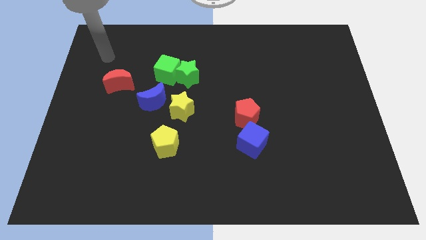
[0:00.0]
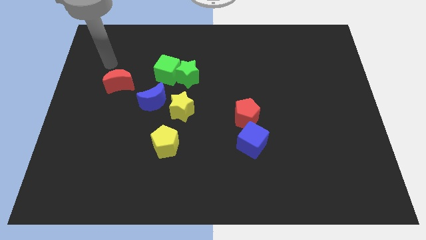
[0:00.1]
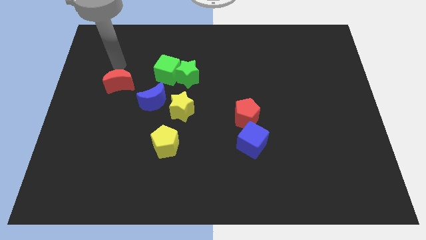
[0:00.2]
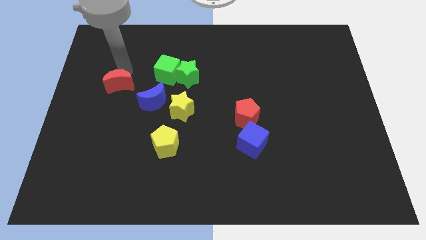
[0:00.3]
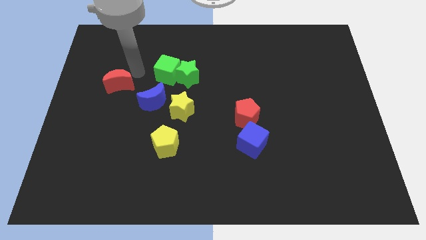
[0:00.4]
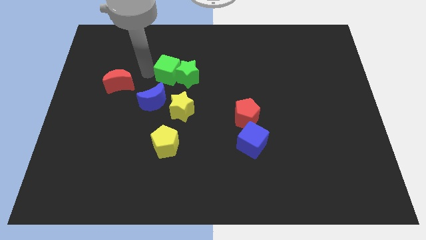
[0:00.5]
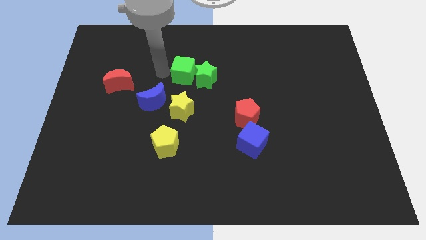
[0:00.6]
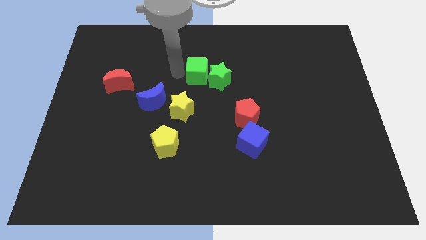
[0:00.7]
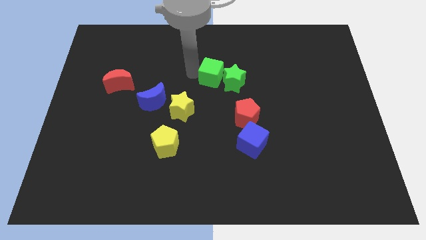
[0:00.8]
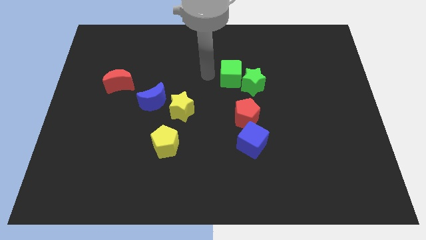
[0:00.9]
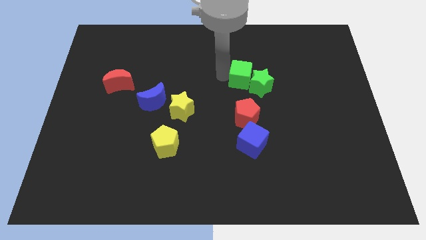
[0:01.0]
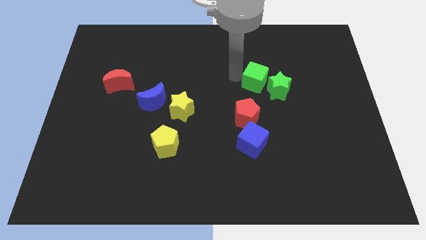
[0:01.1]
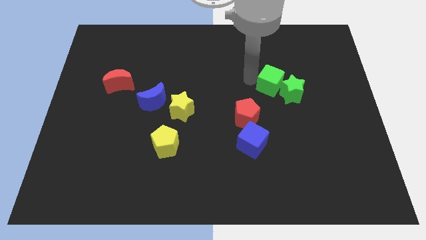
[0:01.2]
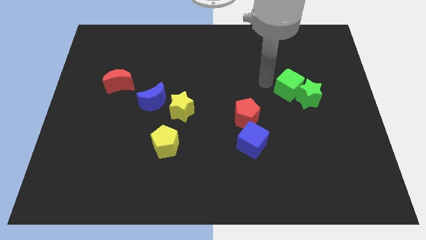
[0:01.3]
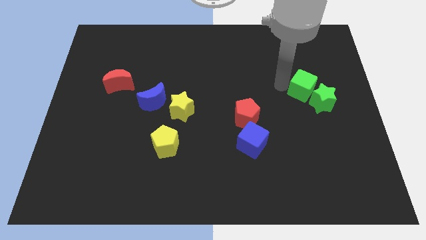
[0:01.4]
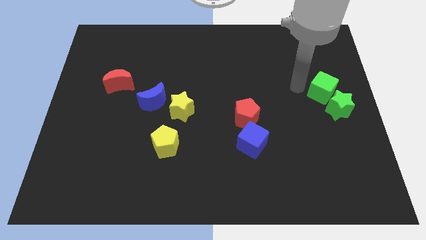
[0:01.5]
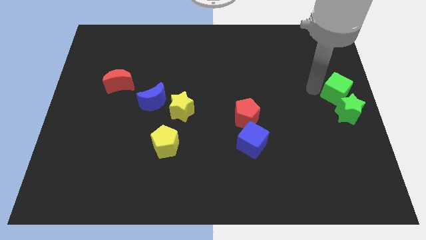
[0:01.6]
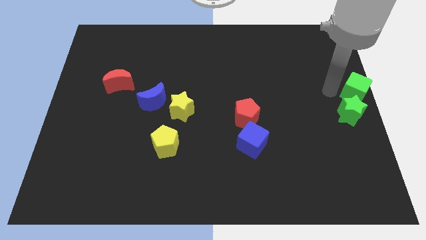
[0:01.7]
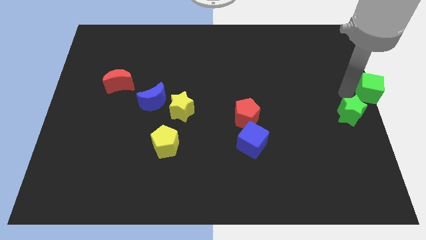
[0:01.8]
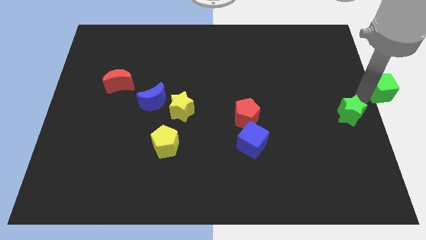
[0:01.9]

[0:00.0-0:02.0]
pull the green star apart from the green cube

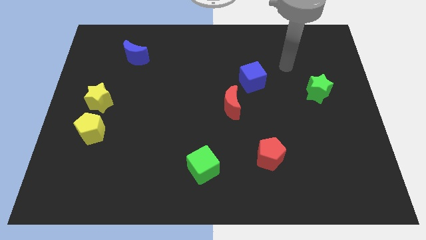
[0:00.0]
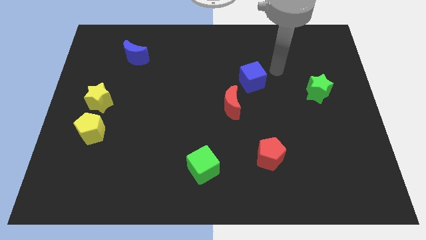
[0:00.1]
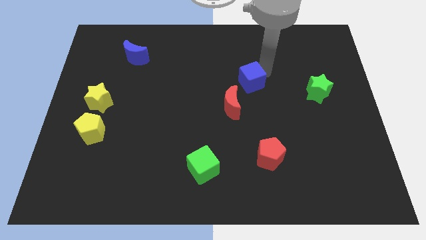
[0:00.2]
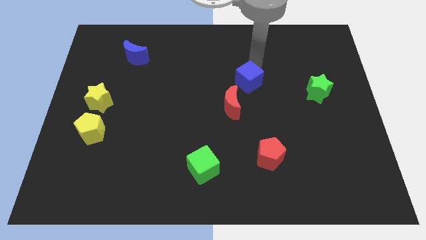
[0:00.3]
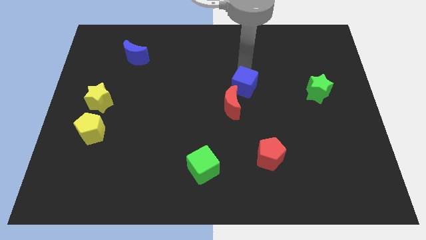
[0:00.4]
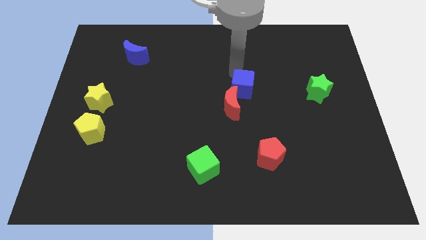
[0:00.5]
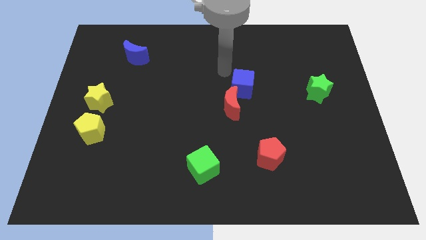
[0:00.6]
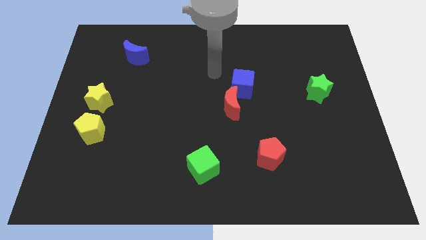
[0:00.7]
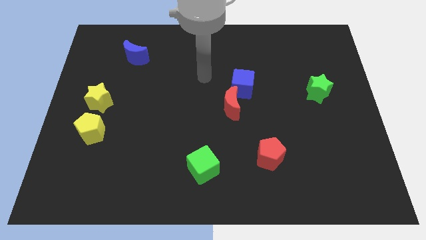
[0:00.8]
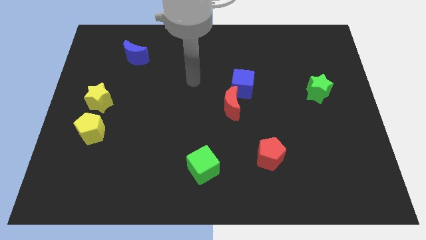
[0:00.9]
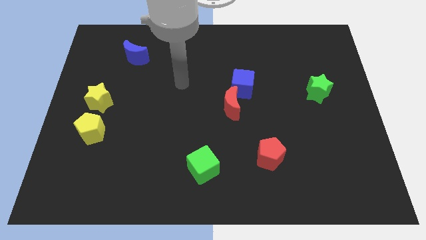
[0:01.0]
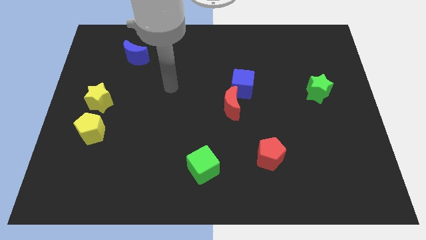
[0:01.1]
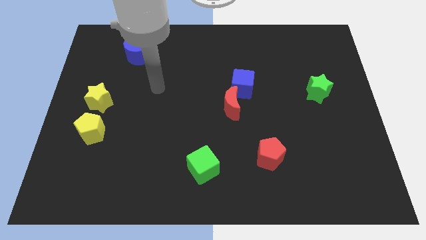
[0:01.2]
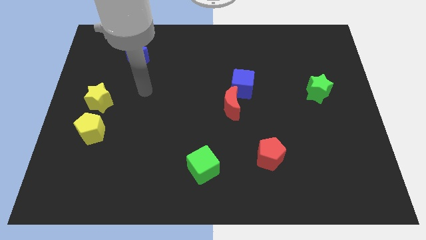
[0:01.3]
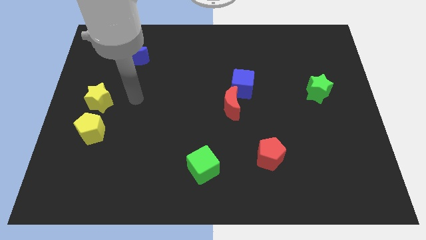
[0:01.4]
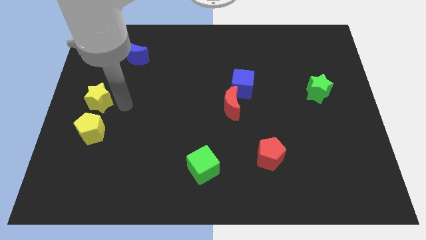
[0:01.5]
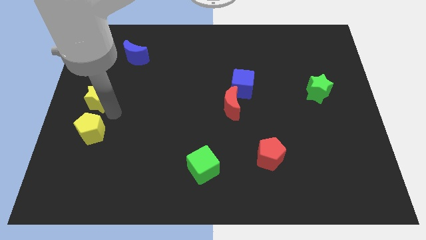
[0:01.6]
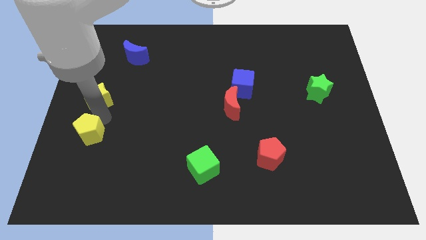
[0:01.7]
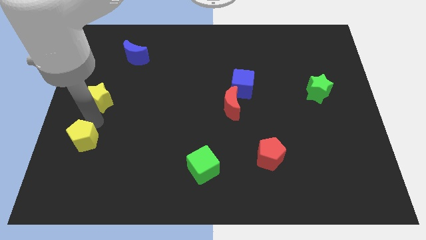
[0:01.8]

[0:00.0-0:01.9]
separate the yellow star from the yellow pentagon

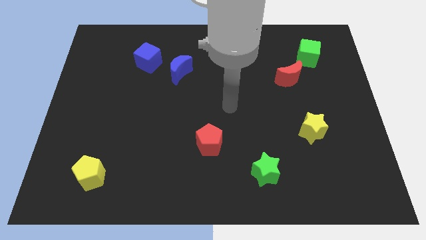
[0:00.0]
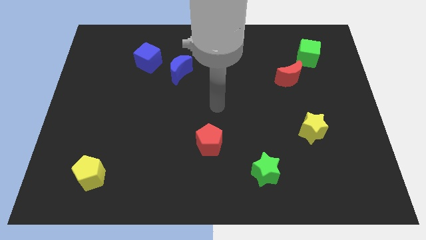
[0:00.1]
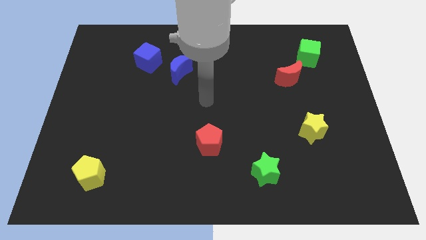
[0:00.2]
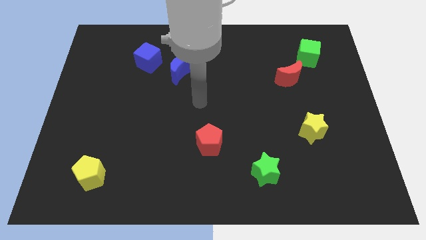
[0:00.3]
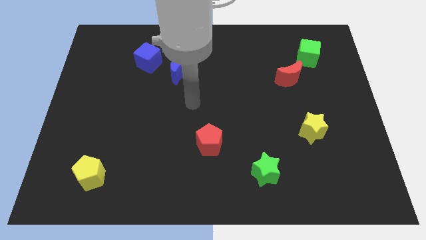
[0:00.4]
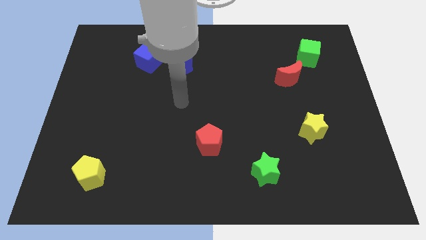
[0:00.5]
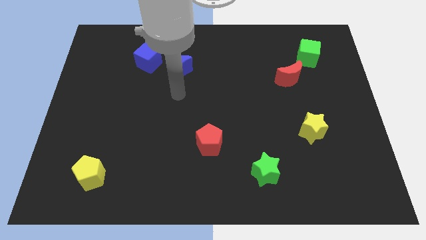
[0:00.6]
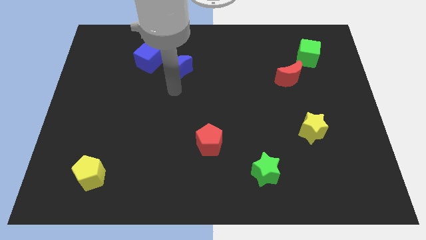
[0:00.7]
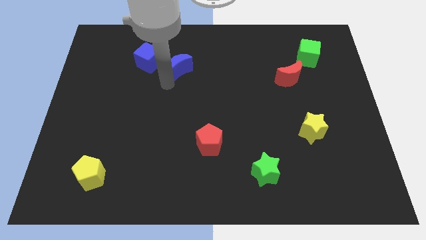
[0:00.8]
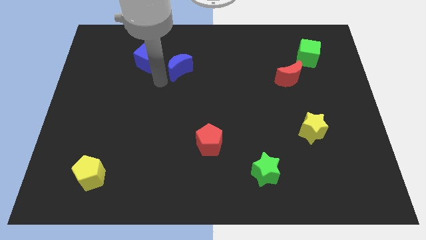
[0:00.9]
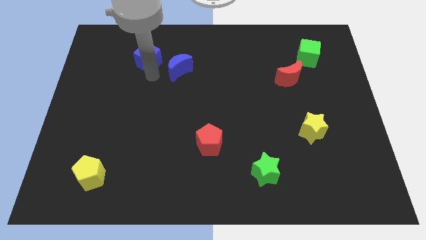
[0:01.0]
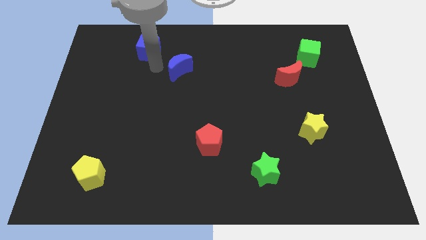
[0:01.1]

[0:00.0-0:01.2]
pull the blue moon apart from the blue cube

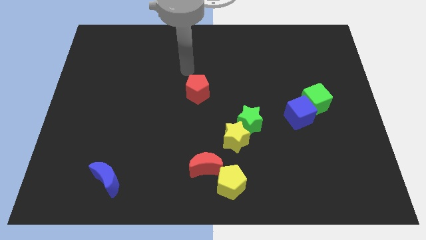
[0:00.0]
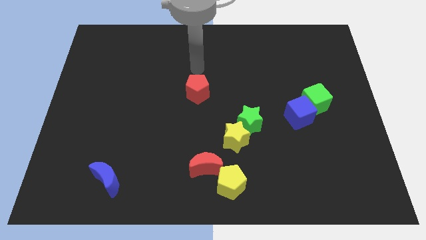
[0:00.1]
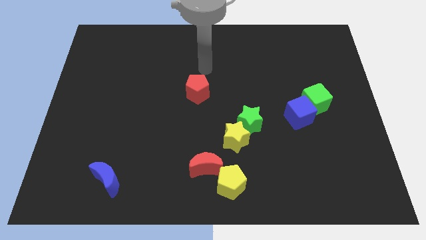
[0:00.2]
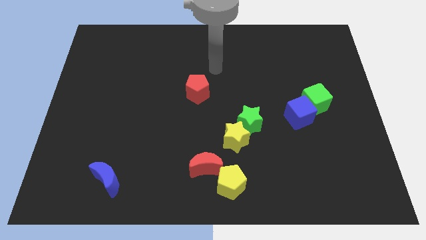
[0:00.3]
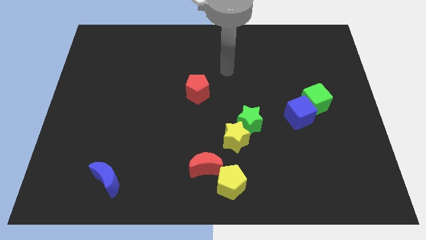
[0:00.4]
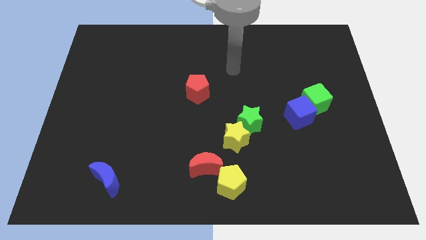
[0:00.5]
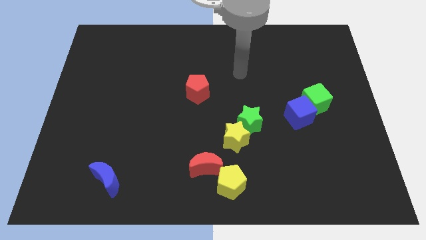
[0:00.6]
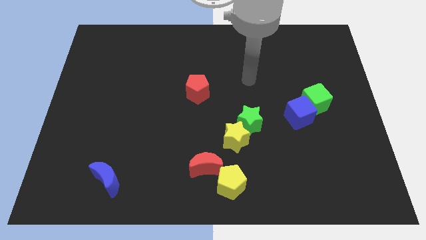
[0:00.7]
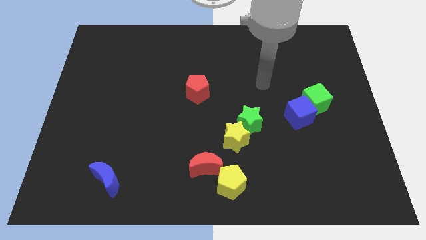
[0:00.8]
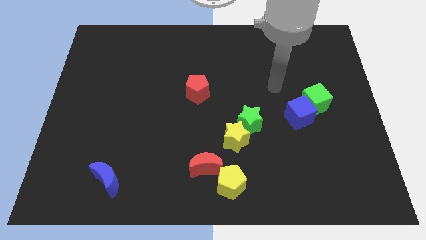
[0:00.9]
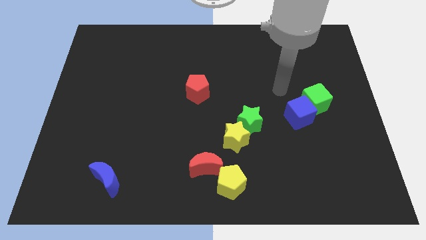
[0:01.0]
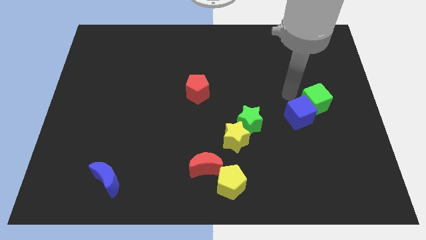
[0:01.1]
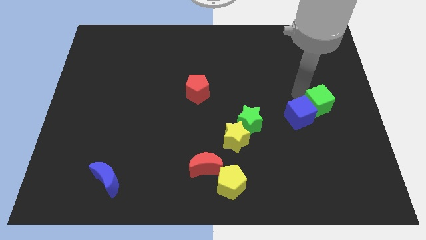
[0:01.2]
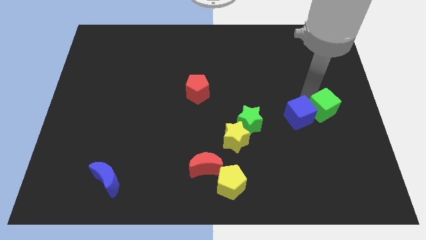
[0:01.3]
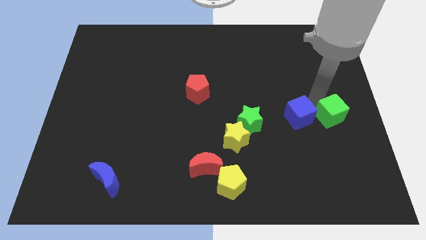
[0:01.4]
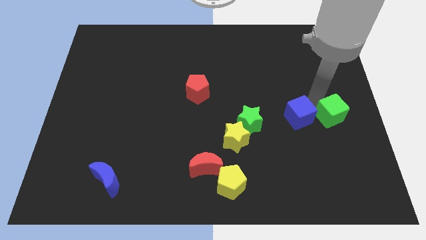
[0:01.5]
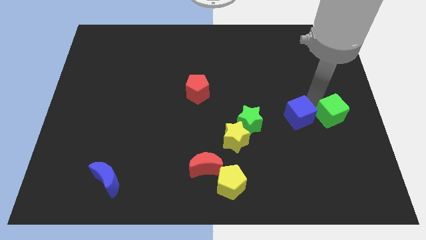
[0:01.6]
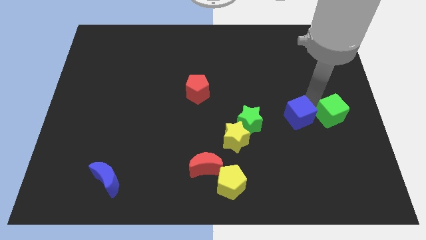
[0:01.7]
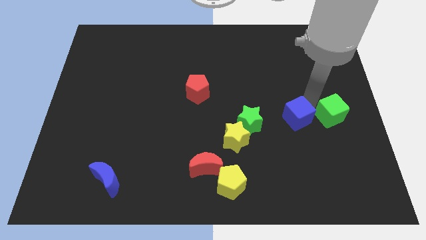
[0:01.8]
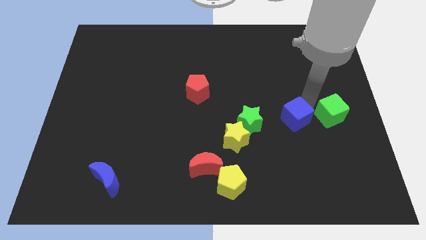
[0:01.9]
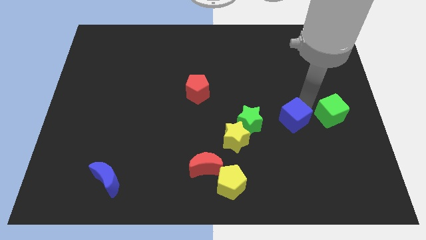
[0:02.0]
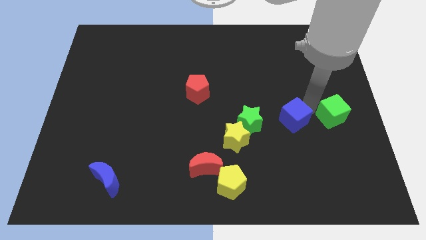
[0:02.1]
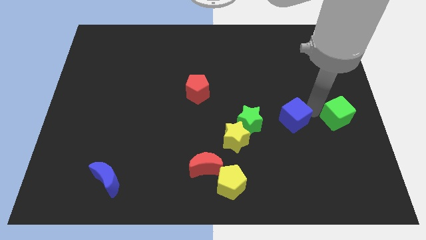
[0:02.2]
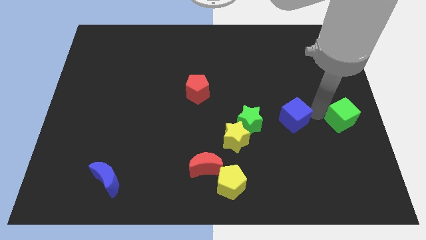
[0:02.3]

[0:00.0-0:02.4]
separate the blue cube from the green cube

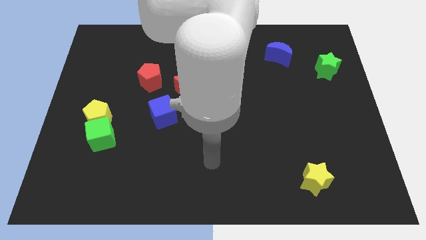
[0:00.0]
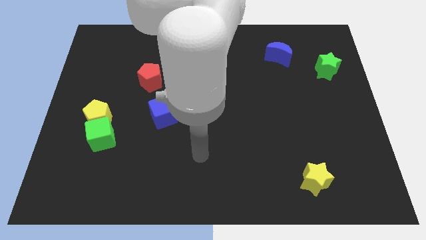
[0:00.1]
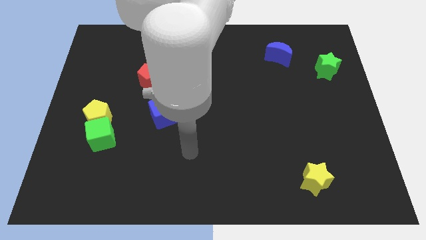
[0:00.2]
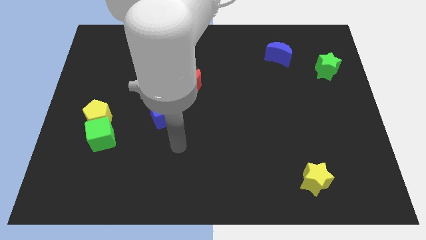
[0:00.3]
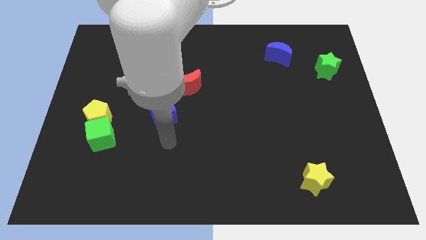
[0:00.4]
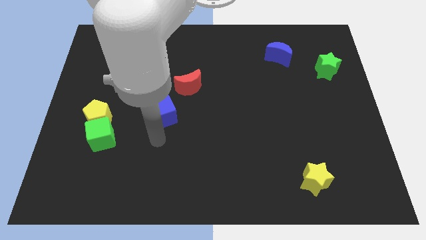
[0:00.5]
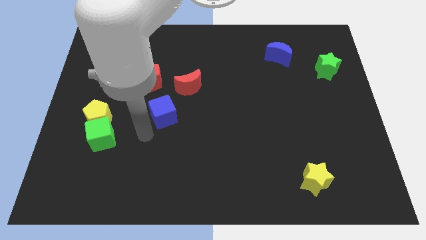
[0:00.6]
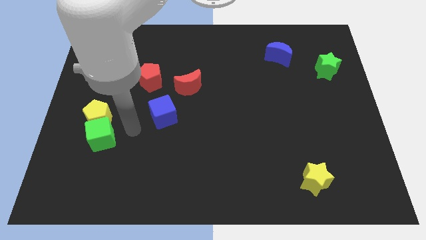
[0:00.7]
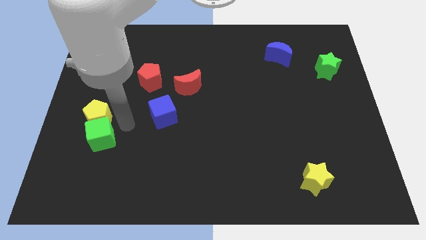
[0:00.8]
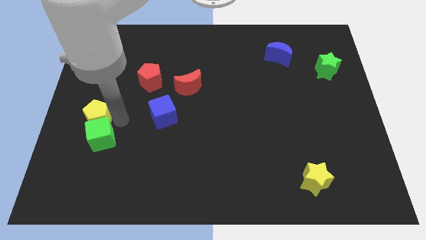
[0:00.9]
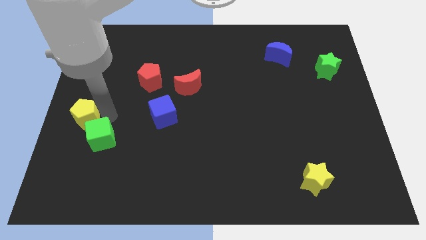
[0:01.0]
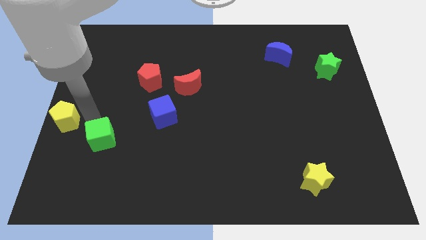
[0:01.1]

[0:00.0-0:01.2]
pull the green cube apart from the yellow pentagon

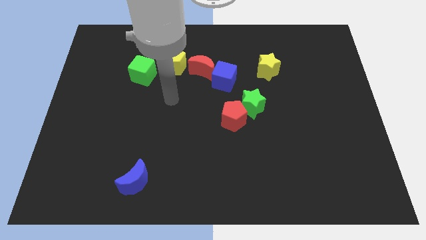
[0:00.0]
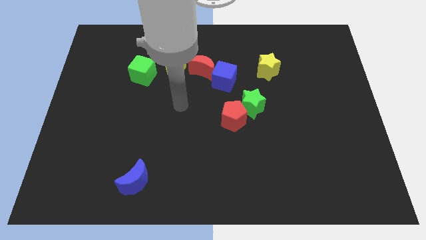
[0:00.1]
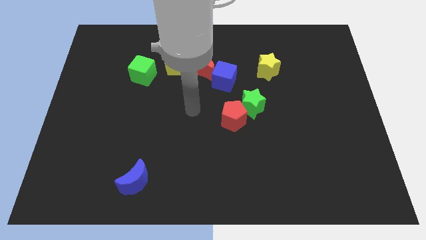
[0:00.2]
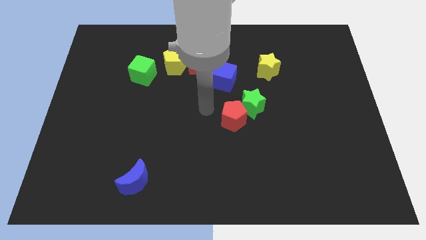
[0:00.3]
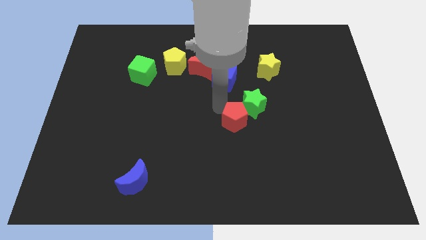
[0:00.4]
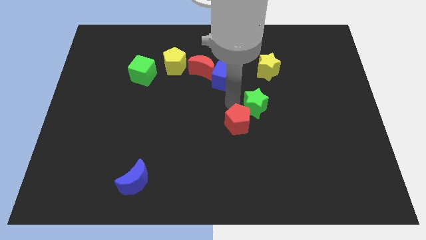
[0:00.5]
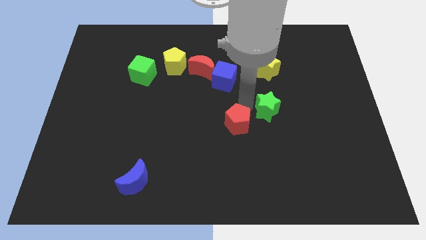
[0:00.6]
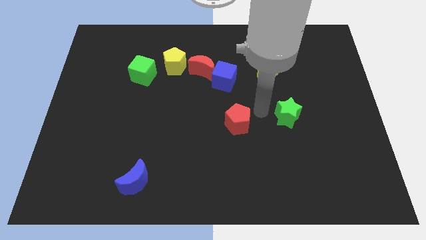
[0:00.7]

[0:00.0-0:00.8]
move the red pentagon away from the green star
